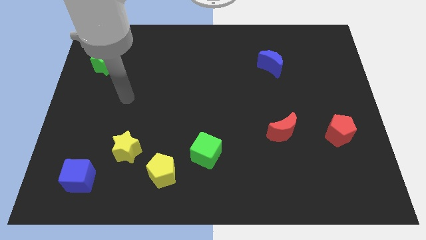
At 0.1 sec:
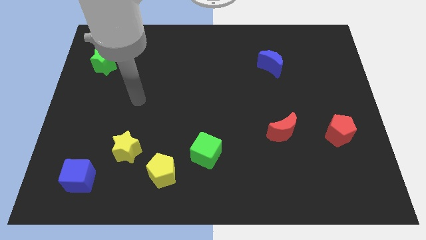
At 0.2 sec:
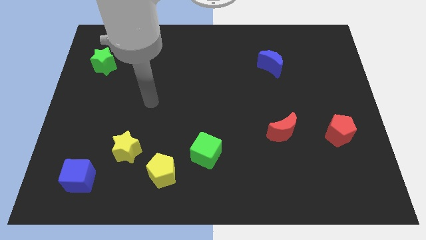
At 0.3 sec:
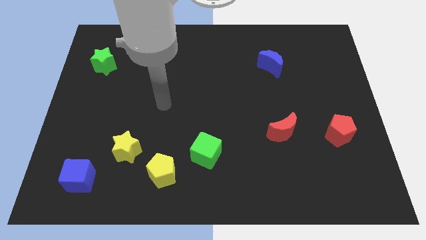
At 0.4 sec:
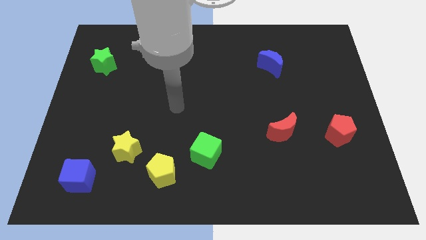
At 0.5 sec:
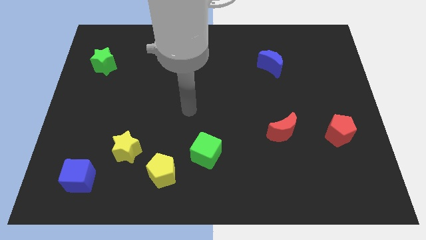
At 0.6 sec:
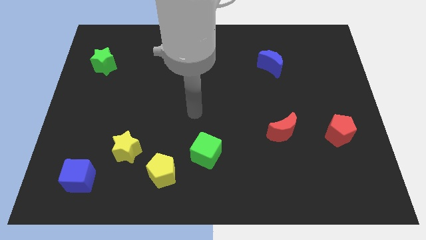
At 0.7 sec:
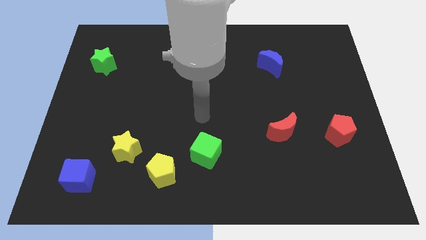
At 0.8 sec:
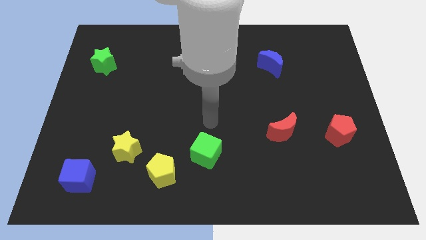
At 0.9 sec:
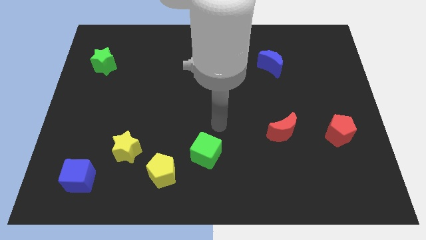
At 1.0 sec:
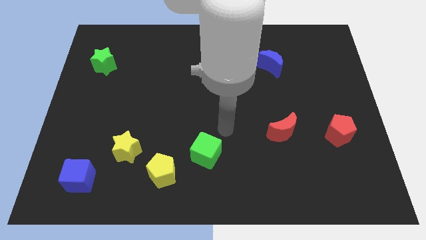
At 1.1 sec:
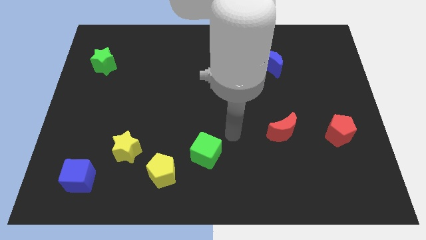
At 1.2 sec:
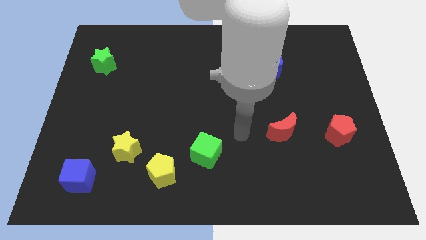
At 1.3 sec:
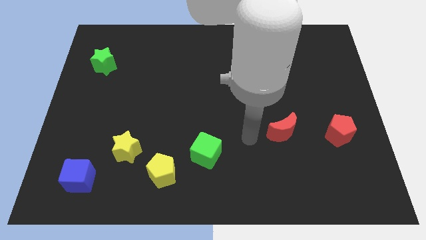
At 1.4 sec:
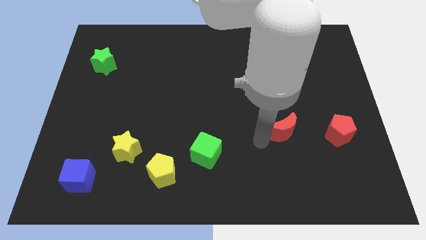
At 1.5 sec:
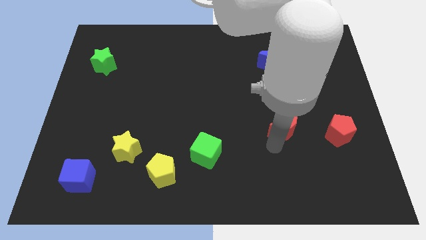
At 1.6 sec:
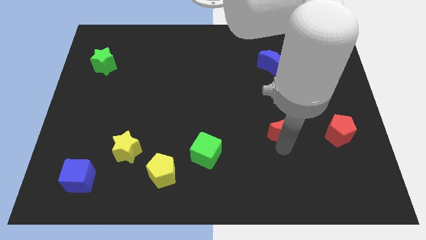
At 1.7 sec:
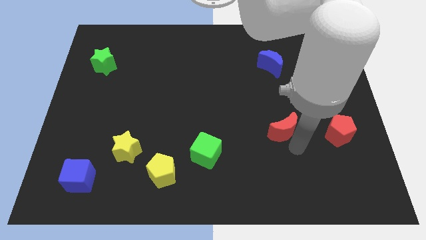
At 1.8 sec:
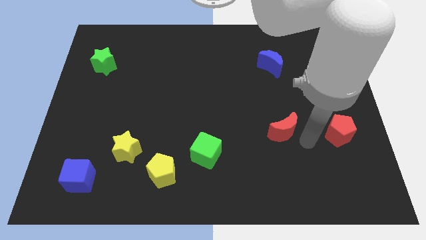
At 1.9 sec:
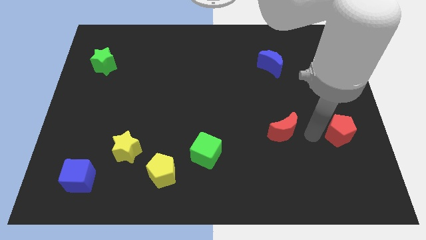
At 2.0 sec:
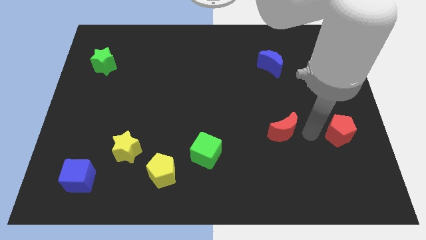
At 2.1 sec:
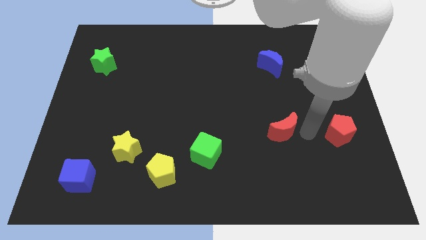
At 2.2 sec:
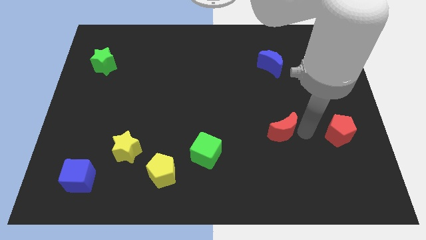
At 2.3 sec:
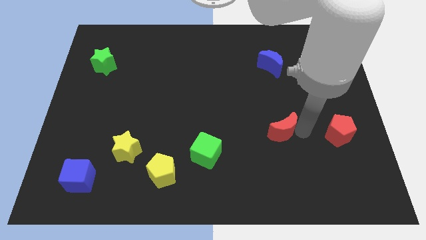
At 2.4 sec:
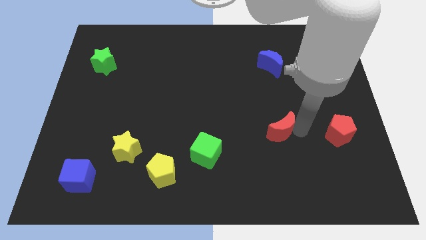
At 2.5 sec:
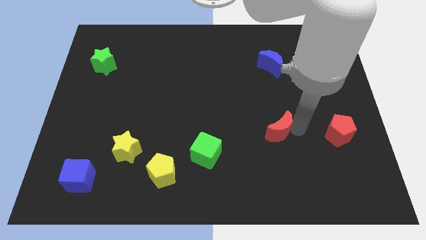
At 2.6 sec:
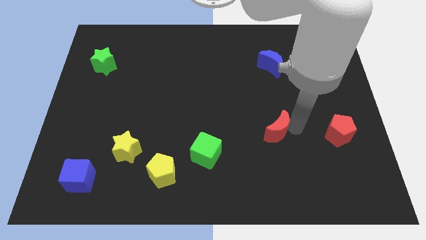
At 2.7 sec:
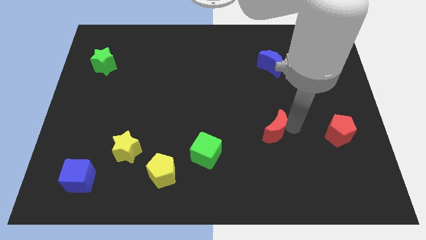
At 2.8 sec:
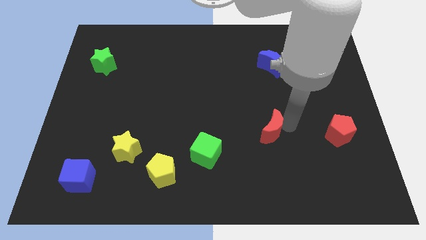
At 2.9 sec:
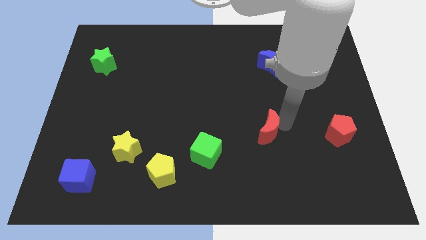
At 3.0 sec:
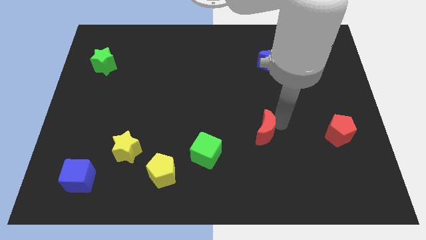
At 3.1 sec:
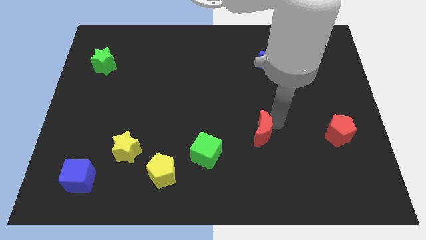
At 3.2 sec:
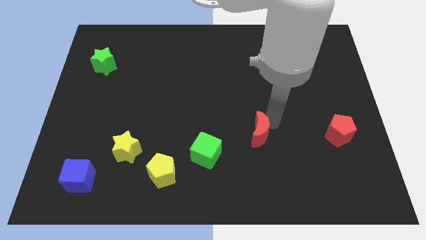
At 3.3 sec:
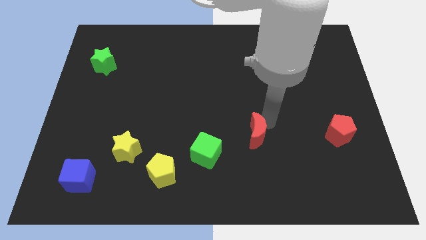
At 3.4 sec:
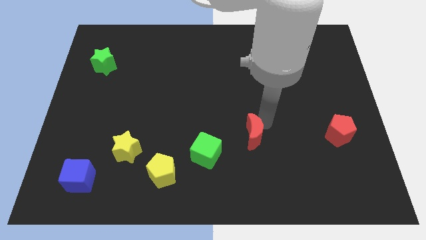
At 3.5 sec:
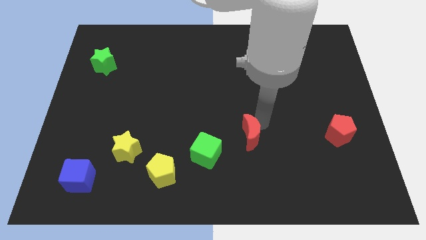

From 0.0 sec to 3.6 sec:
move the red moon somewhat to the left

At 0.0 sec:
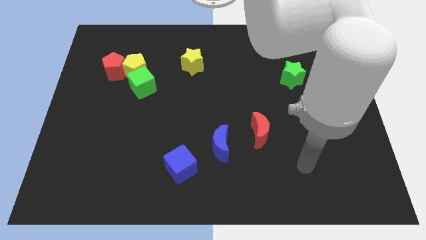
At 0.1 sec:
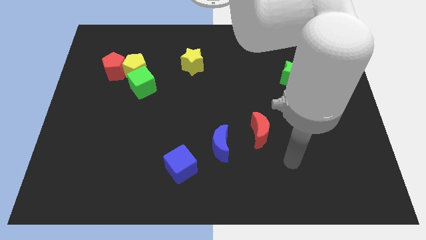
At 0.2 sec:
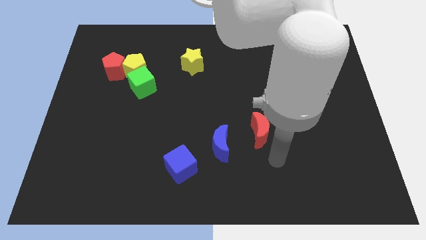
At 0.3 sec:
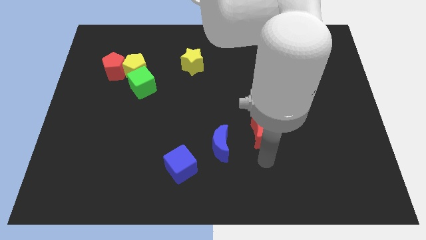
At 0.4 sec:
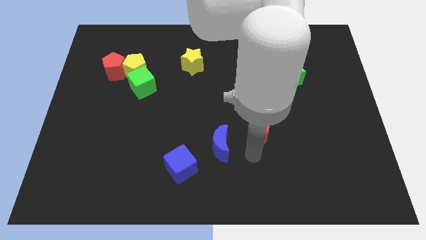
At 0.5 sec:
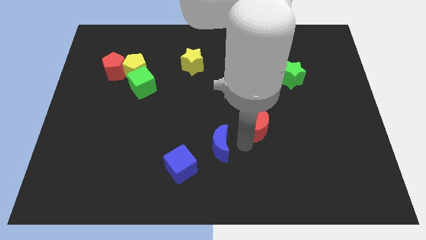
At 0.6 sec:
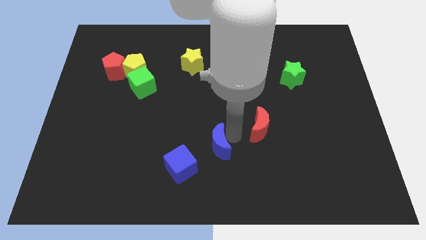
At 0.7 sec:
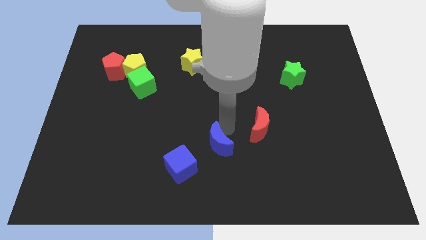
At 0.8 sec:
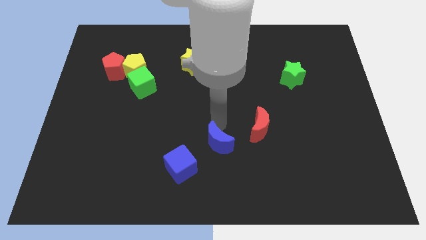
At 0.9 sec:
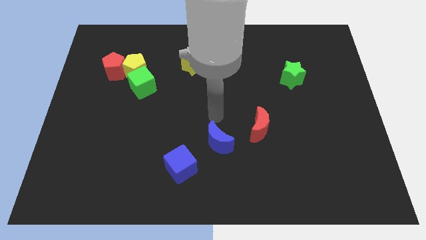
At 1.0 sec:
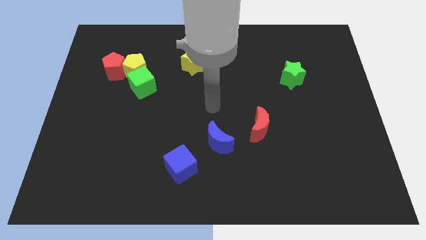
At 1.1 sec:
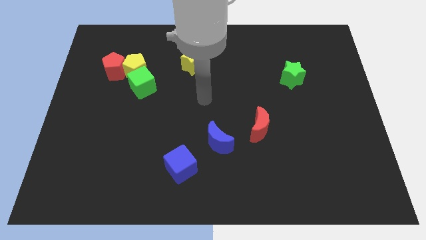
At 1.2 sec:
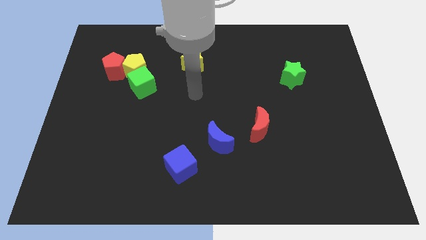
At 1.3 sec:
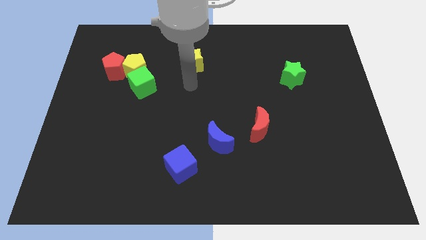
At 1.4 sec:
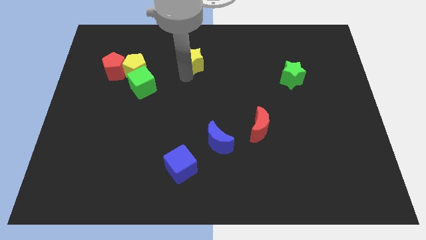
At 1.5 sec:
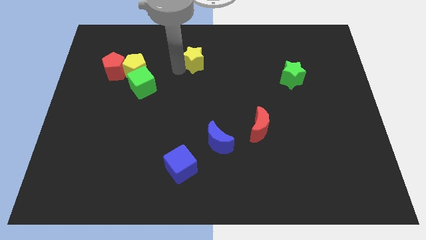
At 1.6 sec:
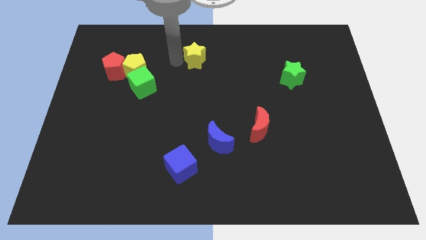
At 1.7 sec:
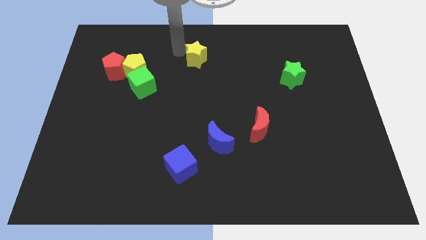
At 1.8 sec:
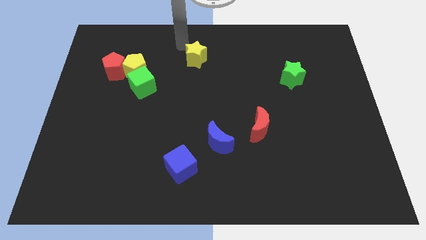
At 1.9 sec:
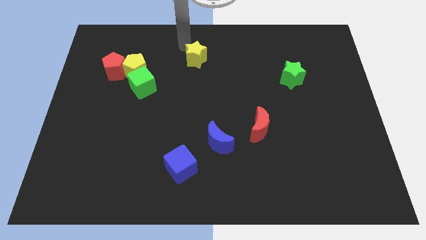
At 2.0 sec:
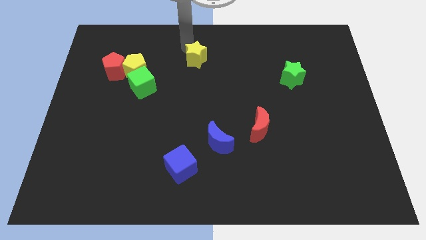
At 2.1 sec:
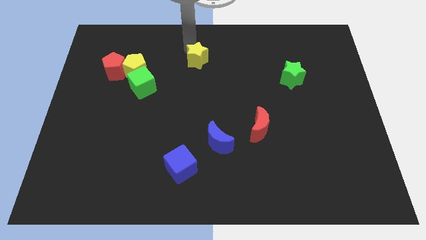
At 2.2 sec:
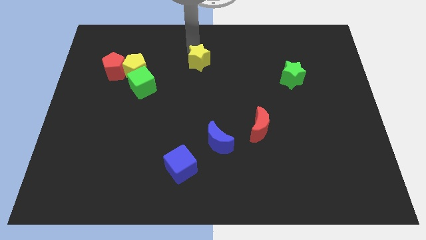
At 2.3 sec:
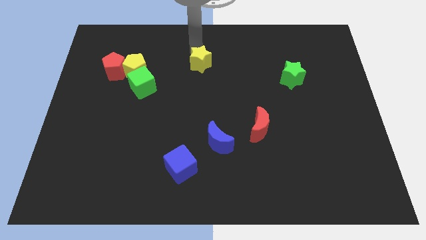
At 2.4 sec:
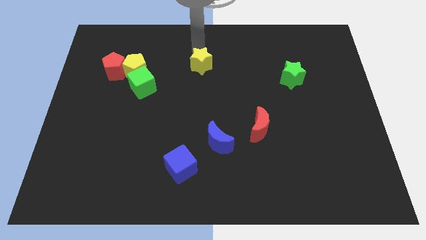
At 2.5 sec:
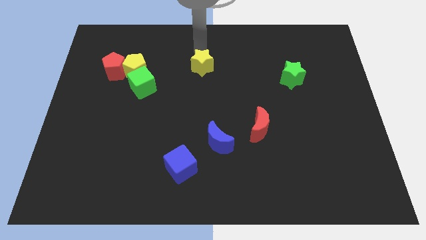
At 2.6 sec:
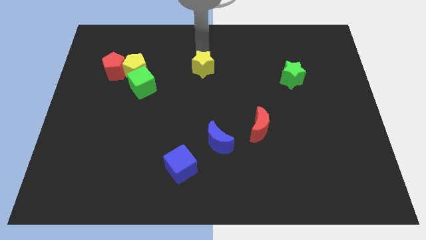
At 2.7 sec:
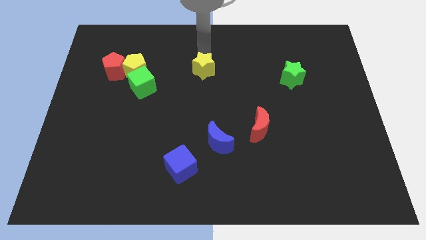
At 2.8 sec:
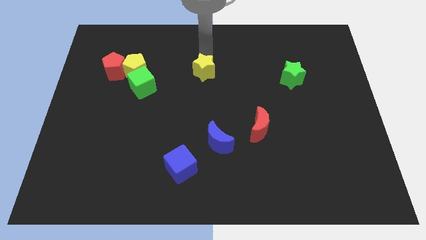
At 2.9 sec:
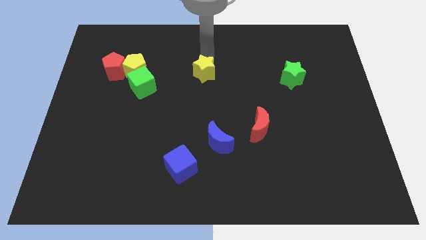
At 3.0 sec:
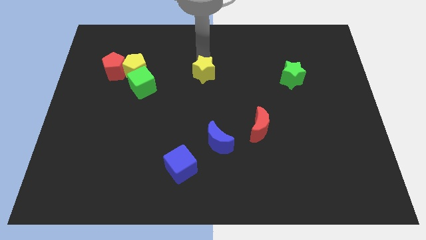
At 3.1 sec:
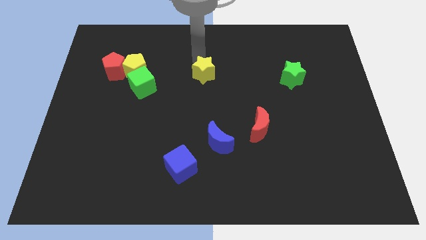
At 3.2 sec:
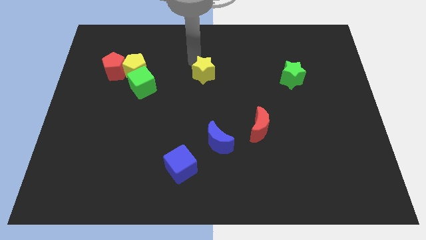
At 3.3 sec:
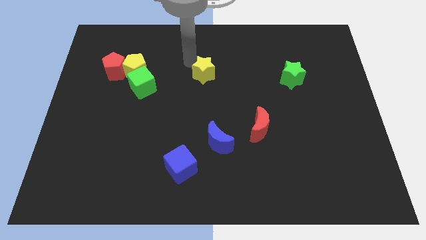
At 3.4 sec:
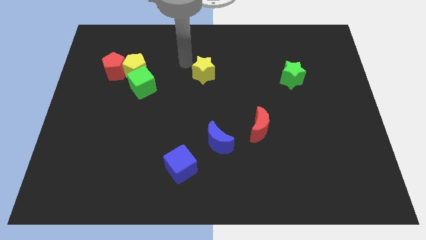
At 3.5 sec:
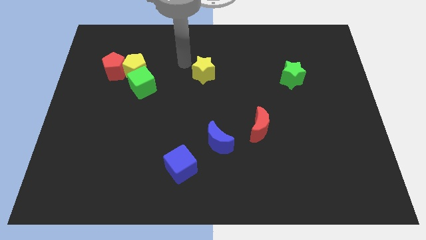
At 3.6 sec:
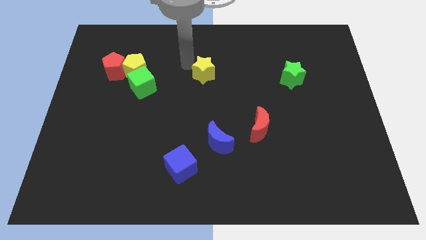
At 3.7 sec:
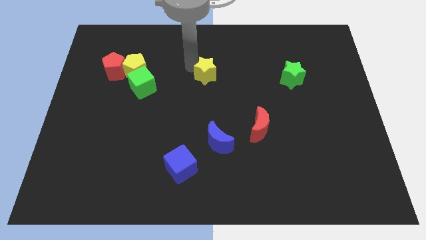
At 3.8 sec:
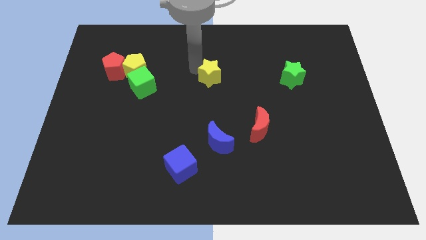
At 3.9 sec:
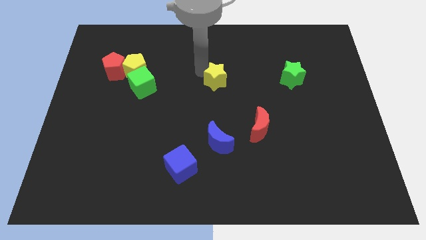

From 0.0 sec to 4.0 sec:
slightly slide the yellow star downwards and then to the right

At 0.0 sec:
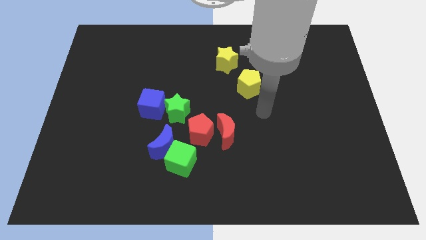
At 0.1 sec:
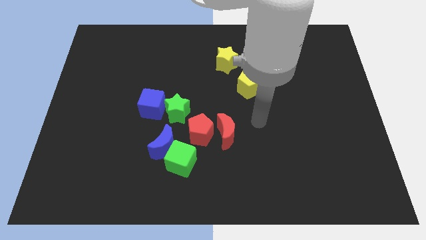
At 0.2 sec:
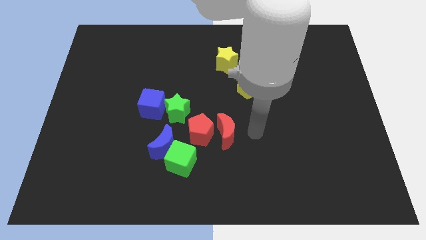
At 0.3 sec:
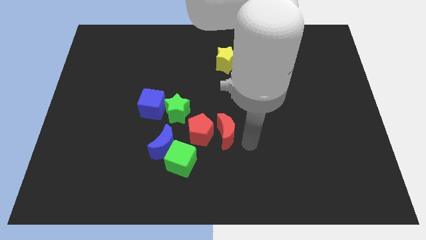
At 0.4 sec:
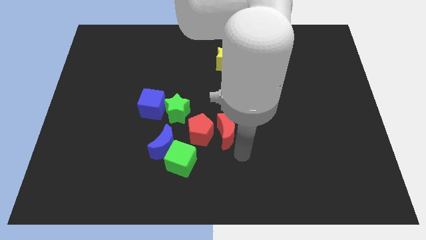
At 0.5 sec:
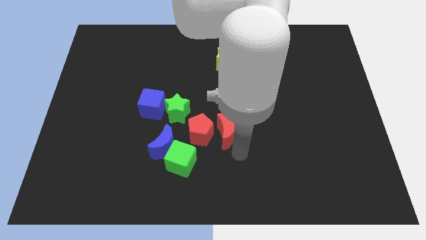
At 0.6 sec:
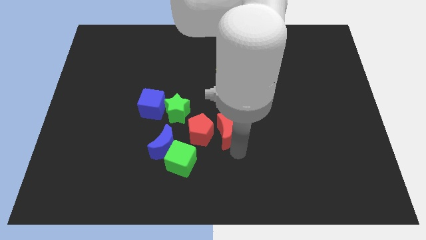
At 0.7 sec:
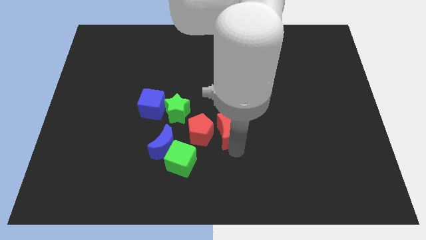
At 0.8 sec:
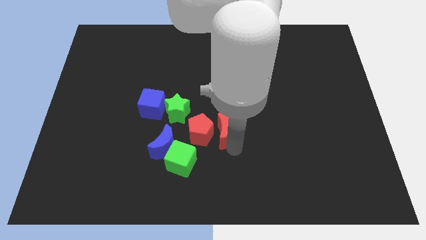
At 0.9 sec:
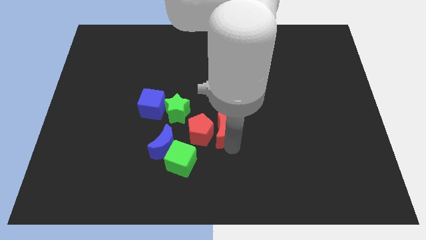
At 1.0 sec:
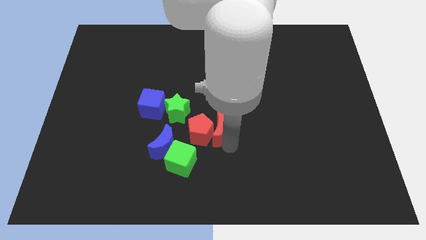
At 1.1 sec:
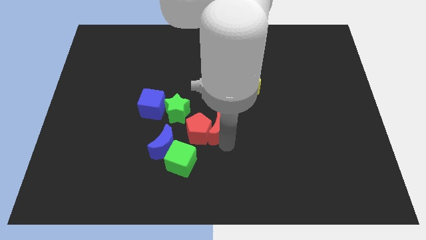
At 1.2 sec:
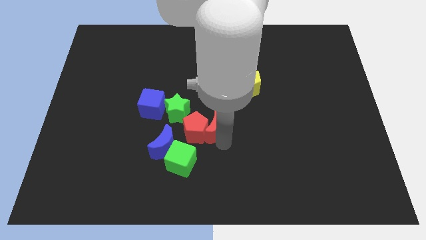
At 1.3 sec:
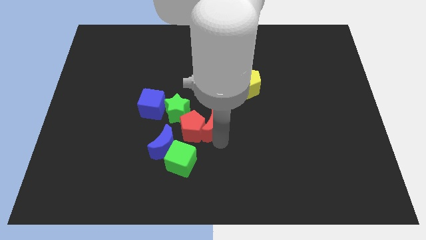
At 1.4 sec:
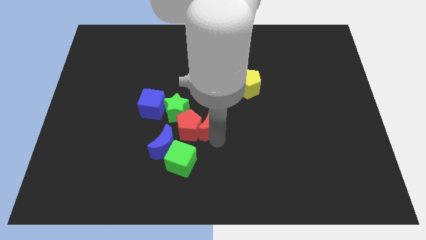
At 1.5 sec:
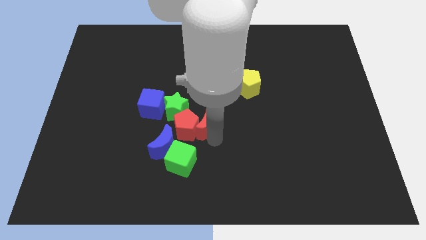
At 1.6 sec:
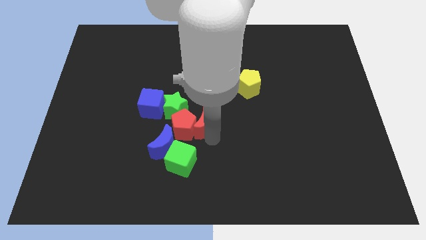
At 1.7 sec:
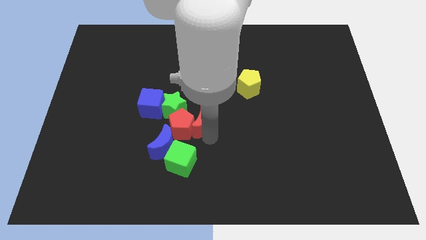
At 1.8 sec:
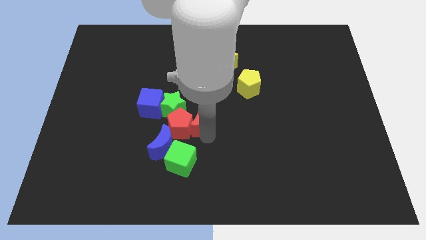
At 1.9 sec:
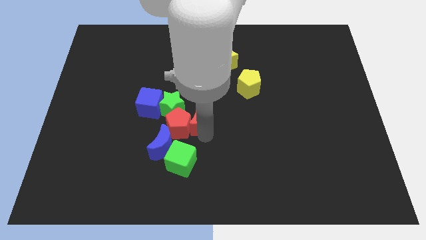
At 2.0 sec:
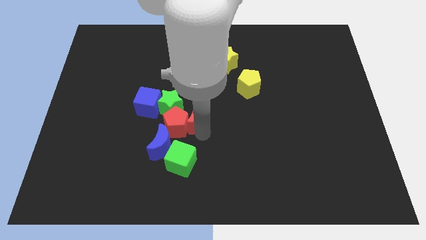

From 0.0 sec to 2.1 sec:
push the red moon a bit up and then to the left
